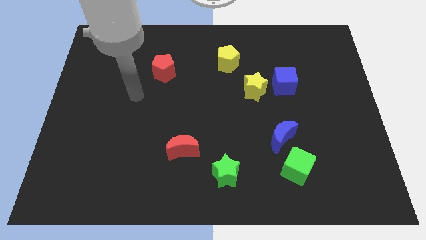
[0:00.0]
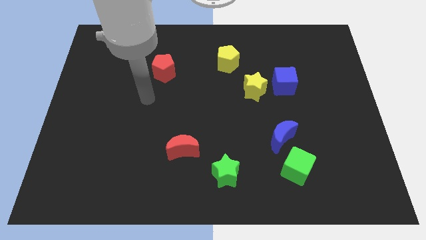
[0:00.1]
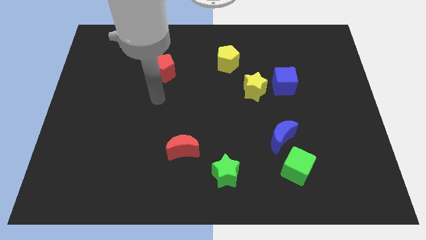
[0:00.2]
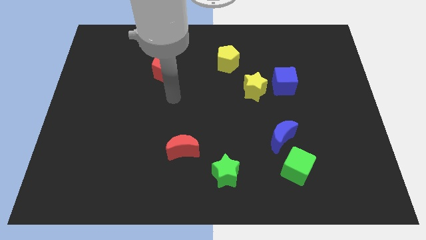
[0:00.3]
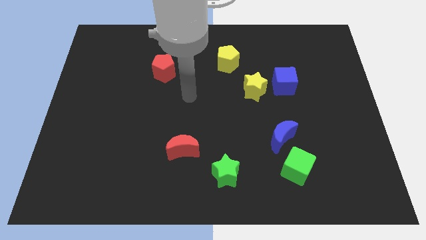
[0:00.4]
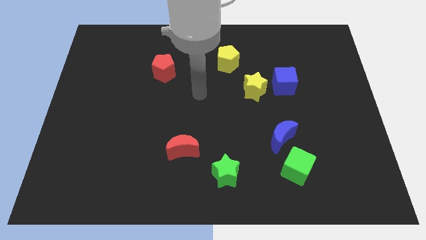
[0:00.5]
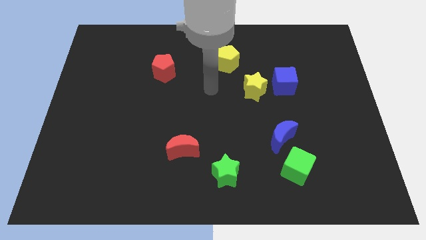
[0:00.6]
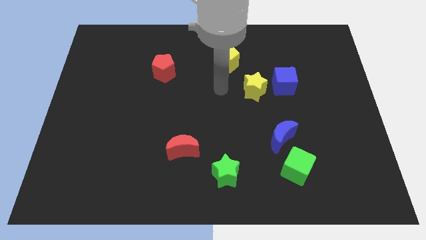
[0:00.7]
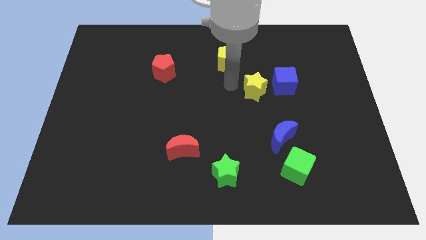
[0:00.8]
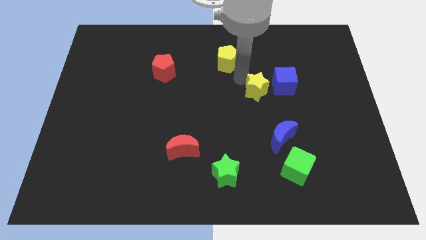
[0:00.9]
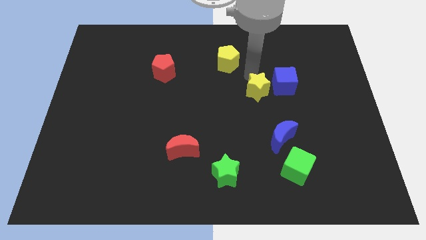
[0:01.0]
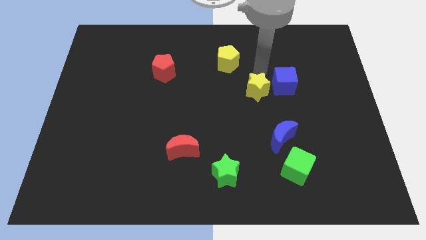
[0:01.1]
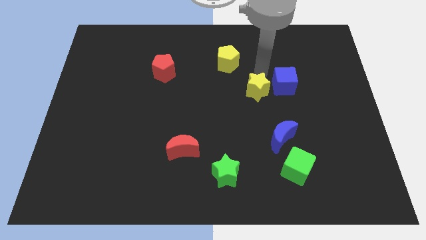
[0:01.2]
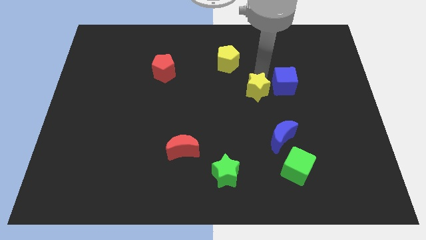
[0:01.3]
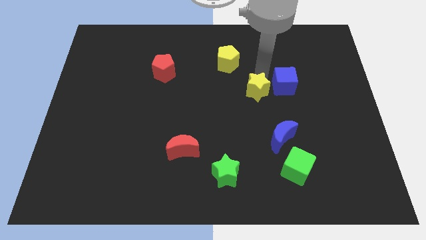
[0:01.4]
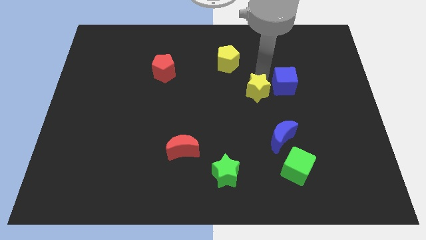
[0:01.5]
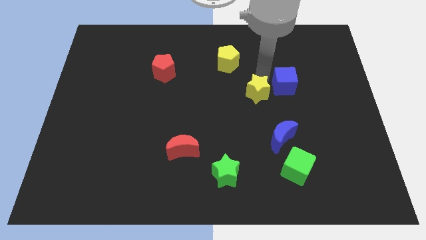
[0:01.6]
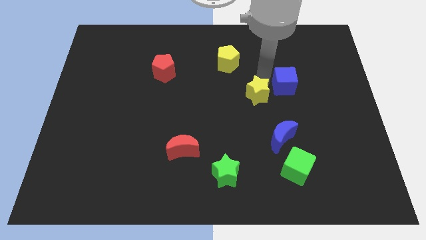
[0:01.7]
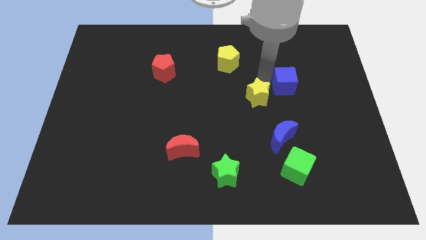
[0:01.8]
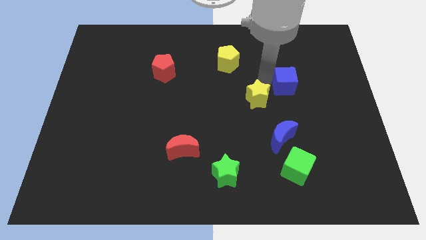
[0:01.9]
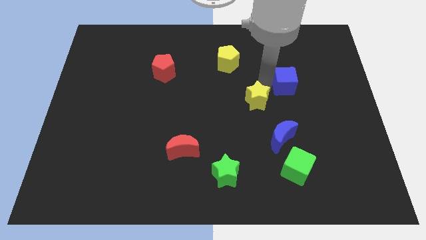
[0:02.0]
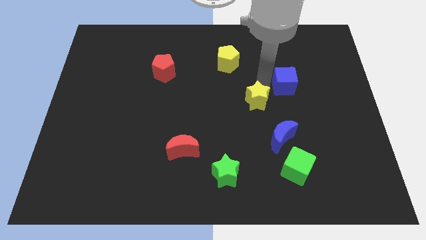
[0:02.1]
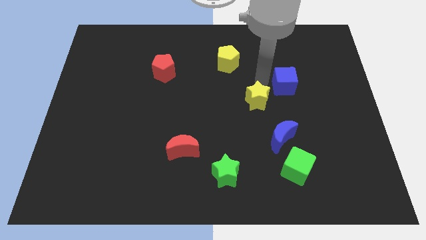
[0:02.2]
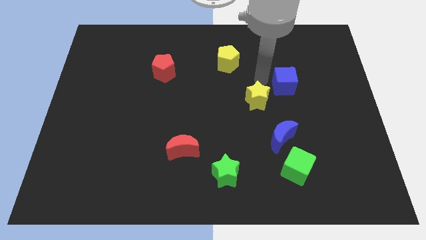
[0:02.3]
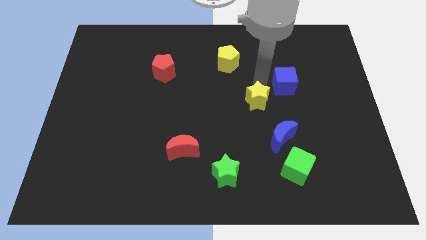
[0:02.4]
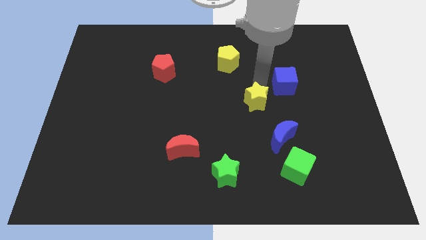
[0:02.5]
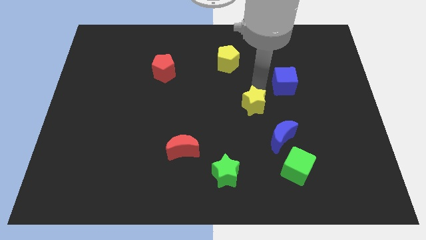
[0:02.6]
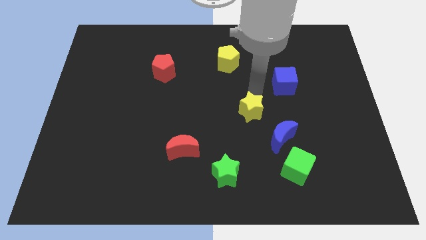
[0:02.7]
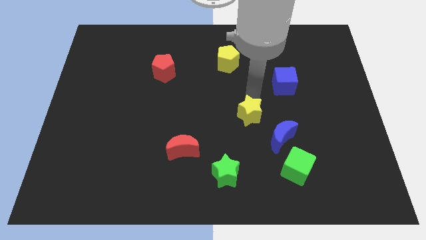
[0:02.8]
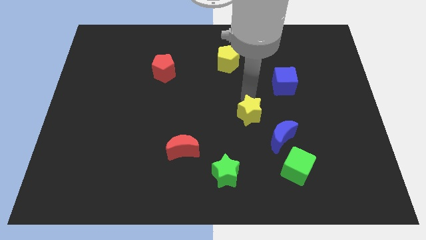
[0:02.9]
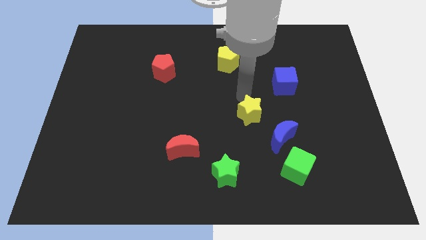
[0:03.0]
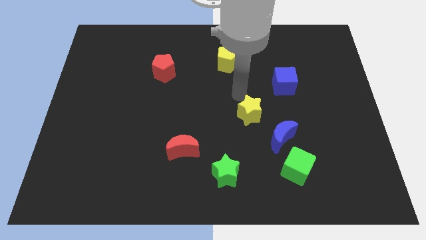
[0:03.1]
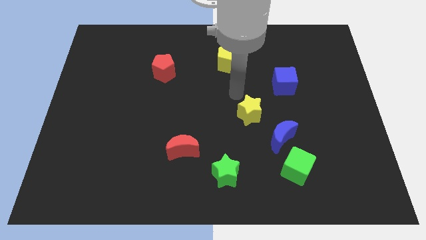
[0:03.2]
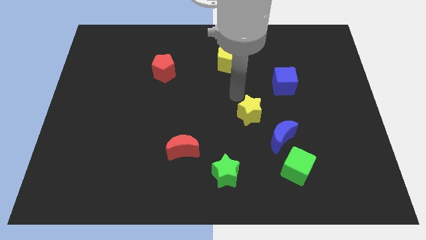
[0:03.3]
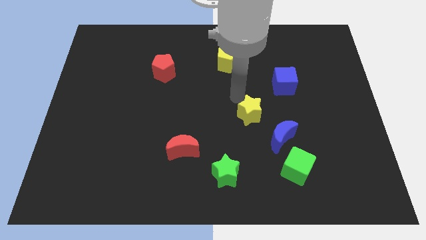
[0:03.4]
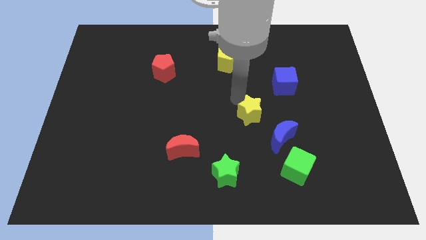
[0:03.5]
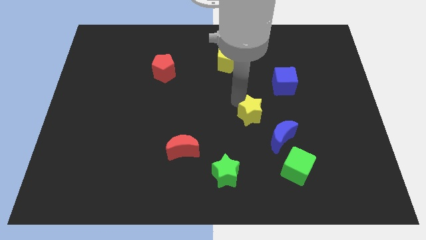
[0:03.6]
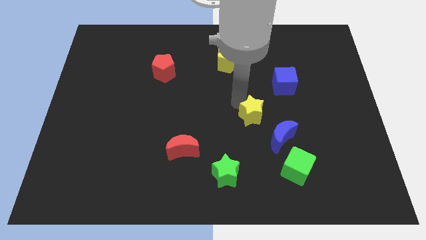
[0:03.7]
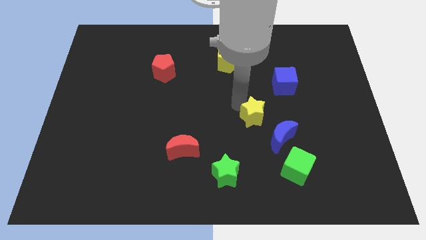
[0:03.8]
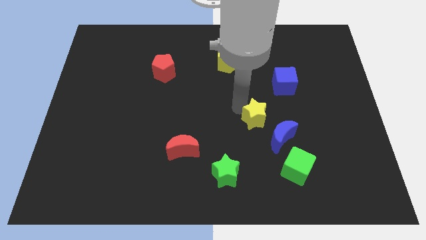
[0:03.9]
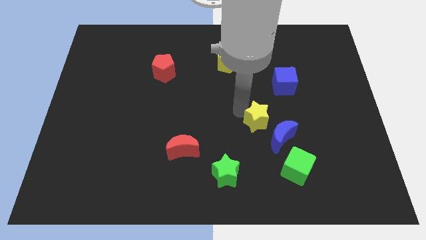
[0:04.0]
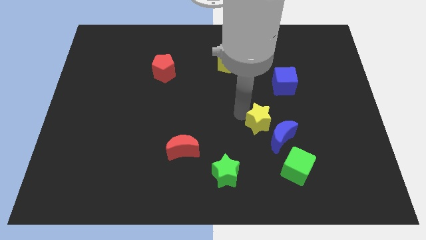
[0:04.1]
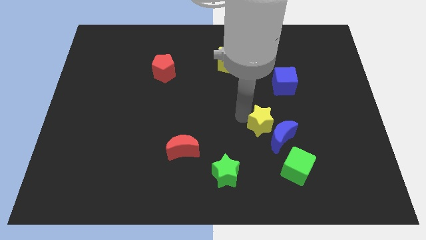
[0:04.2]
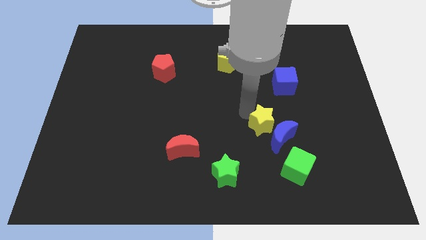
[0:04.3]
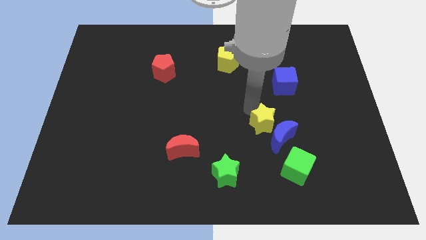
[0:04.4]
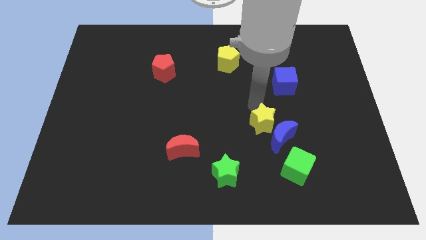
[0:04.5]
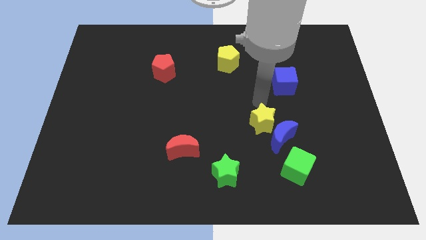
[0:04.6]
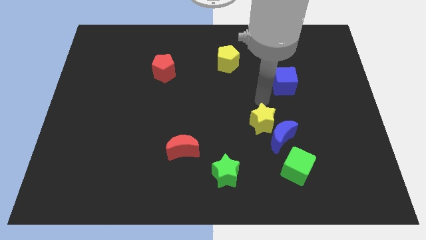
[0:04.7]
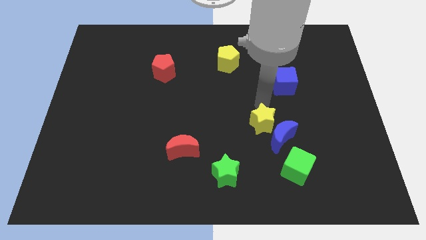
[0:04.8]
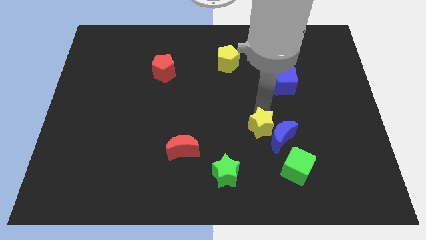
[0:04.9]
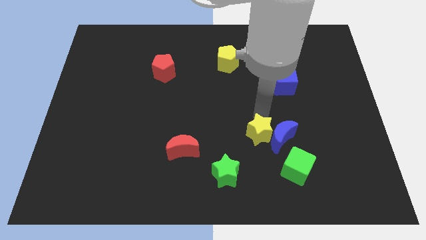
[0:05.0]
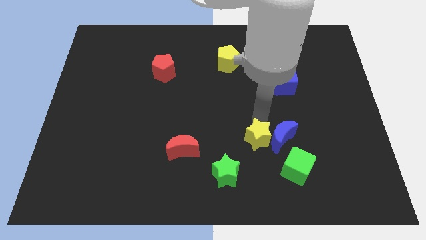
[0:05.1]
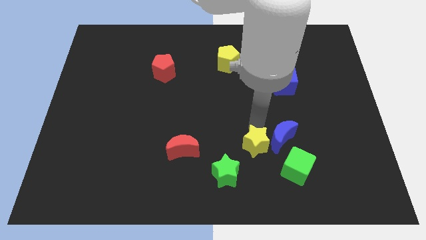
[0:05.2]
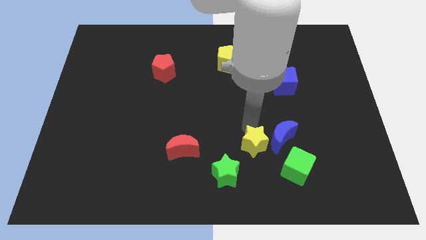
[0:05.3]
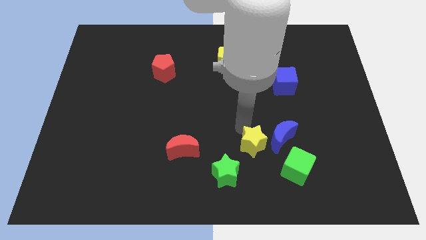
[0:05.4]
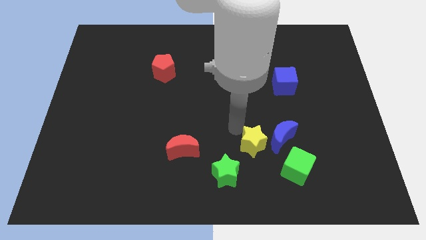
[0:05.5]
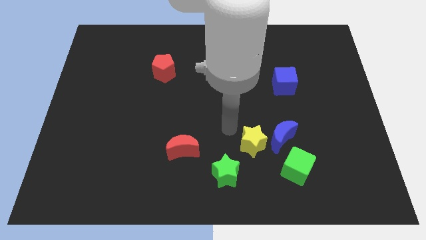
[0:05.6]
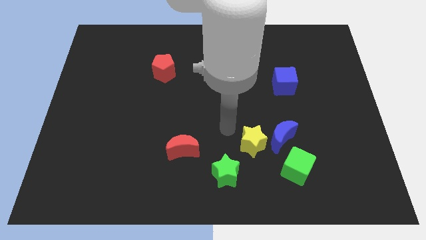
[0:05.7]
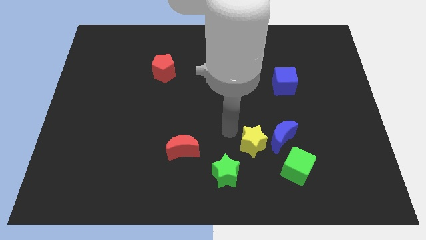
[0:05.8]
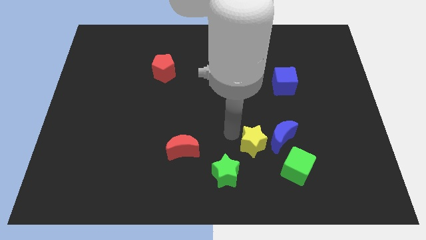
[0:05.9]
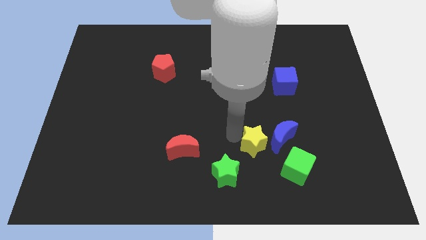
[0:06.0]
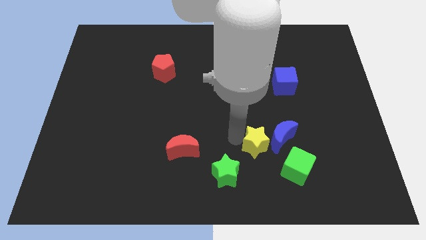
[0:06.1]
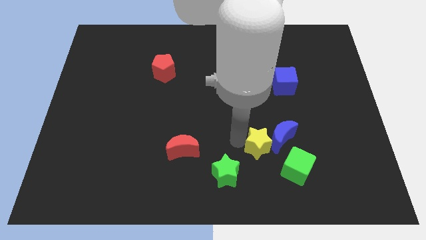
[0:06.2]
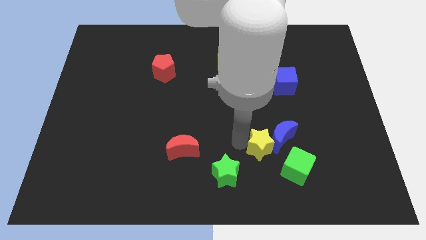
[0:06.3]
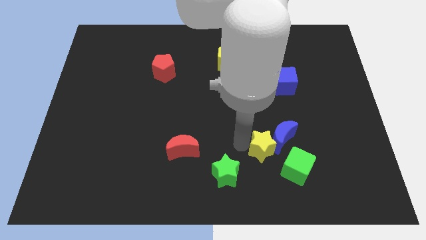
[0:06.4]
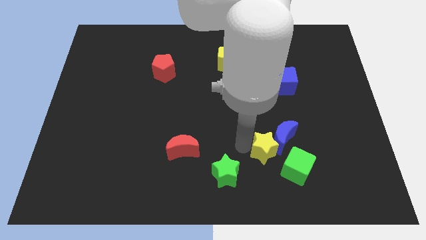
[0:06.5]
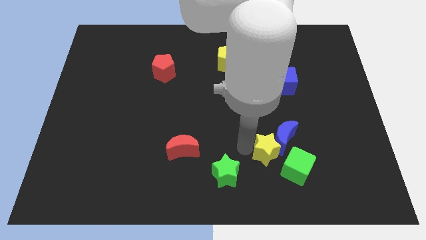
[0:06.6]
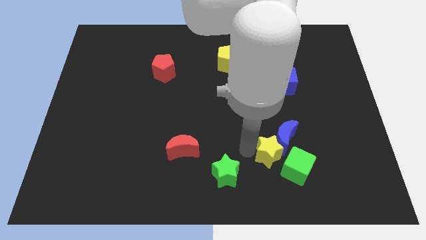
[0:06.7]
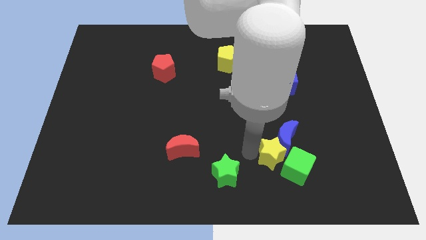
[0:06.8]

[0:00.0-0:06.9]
push the yellow star towards the green cube
